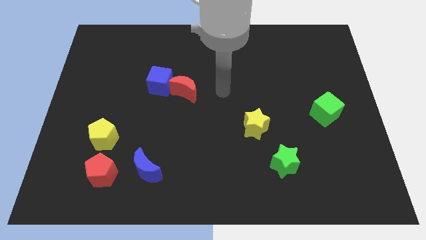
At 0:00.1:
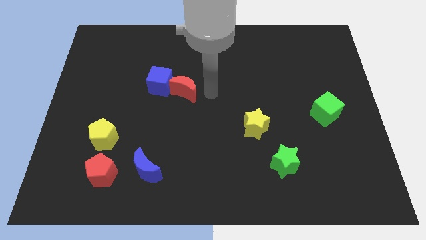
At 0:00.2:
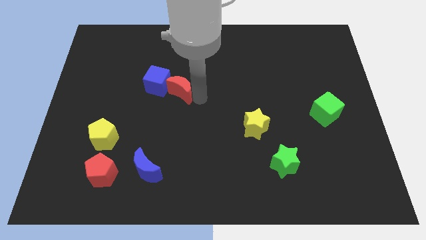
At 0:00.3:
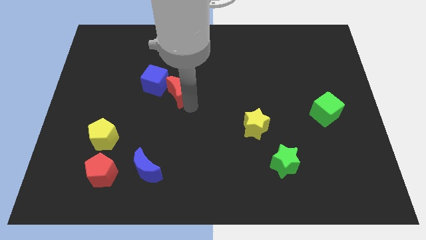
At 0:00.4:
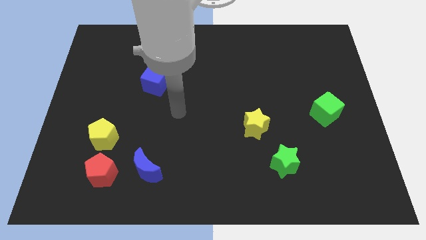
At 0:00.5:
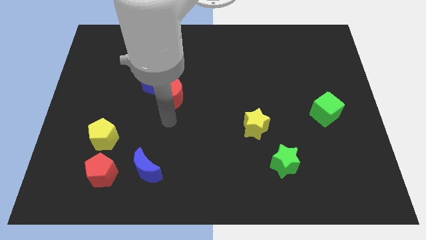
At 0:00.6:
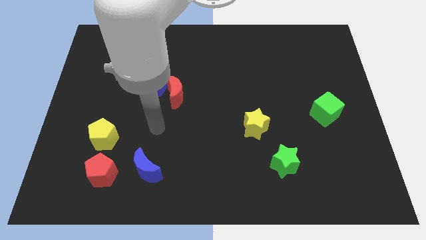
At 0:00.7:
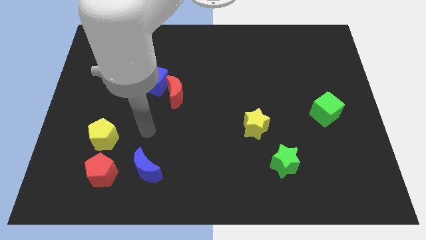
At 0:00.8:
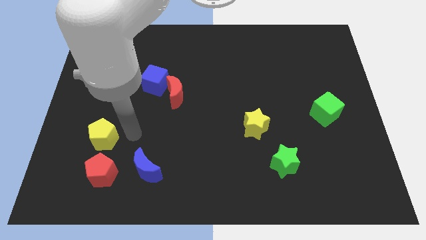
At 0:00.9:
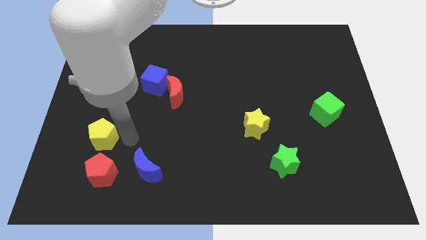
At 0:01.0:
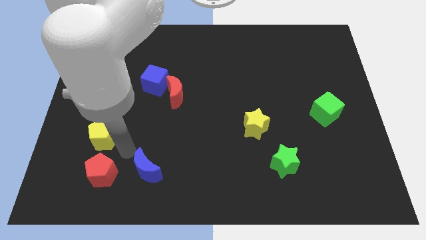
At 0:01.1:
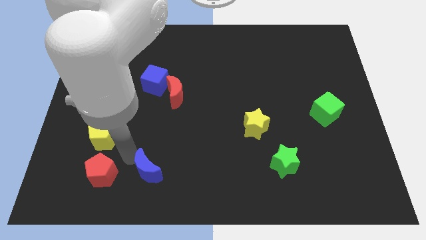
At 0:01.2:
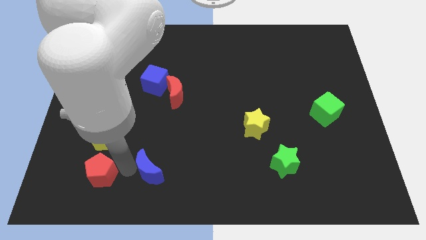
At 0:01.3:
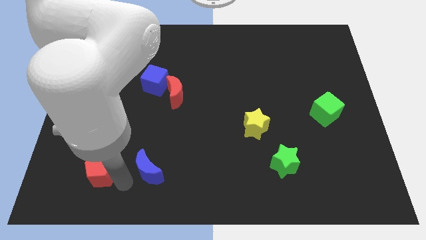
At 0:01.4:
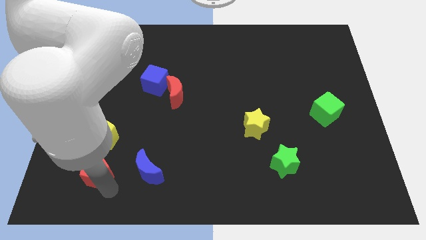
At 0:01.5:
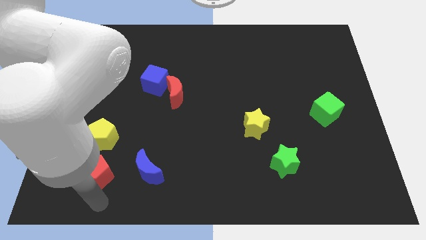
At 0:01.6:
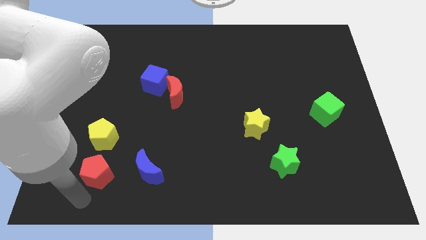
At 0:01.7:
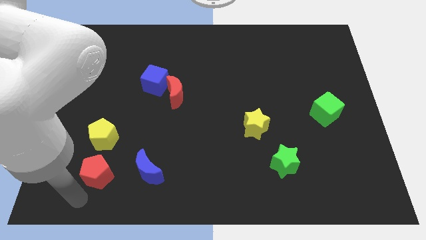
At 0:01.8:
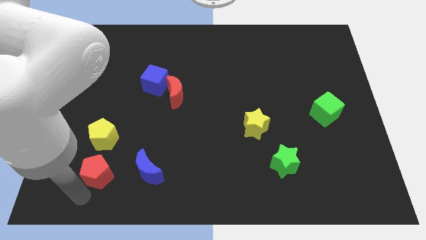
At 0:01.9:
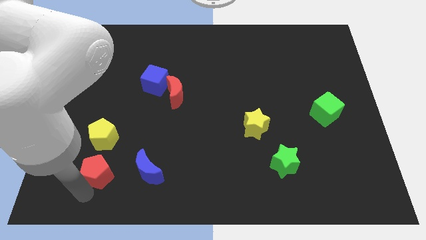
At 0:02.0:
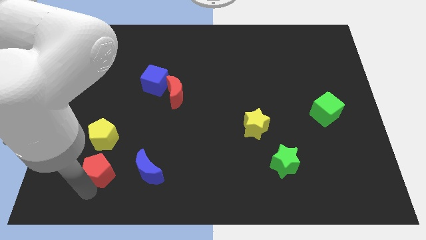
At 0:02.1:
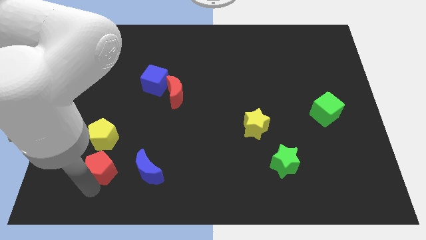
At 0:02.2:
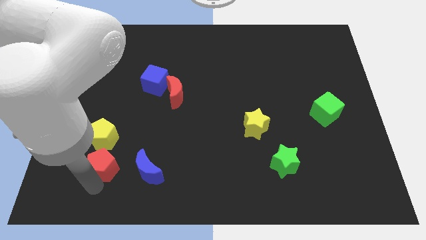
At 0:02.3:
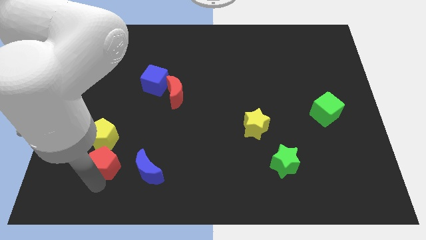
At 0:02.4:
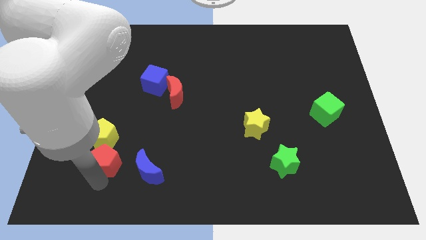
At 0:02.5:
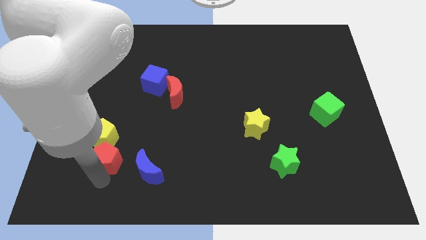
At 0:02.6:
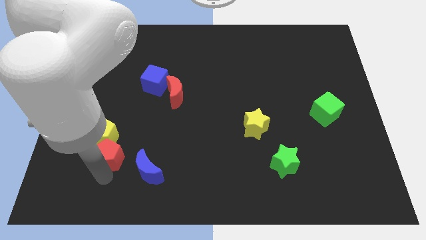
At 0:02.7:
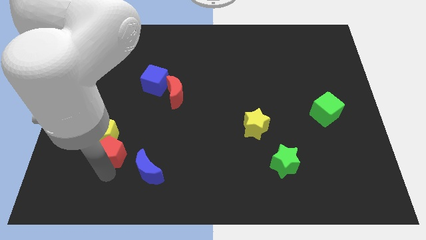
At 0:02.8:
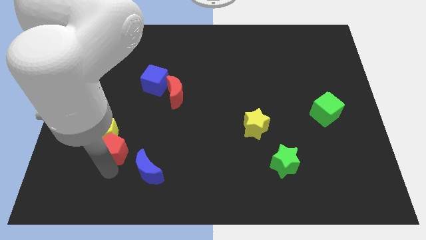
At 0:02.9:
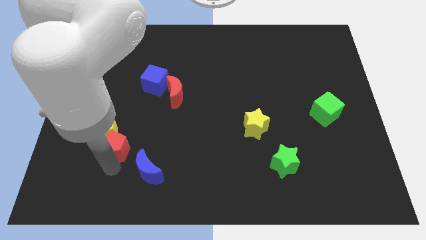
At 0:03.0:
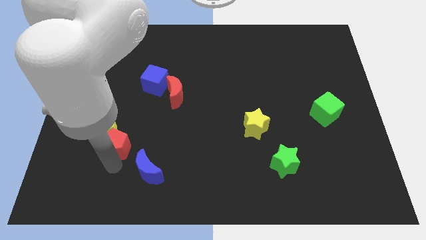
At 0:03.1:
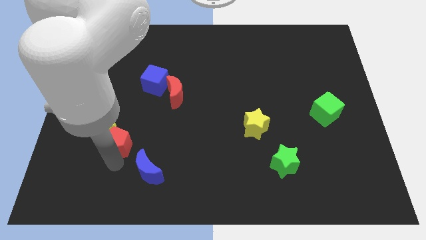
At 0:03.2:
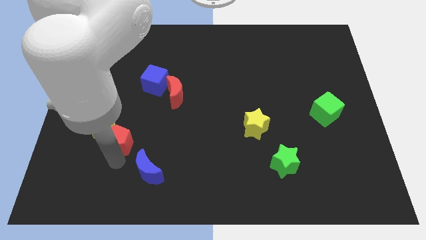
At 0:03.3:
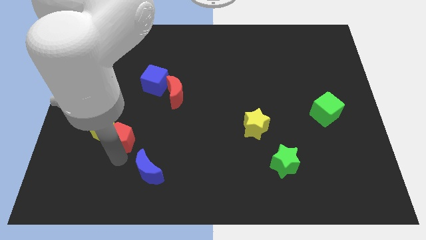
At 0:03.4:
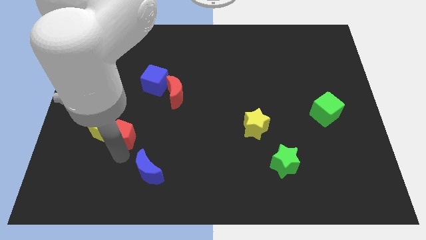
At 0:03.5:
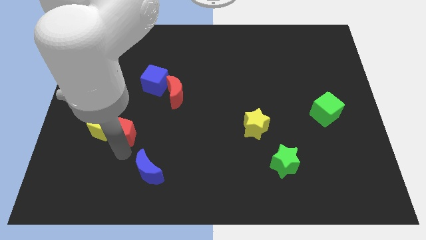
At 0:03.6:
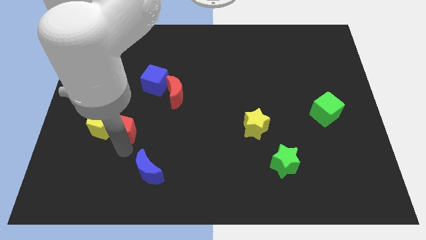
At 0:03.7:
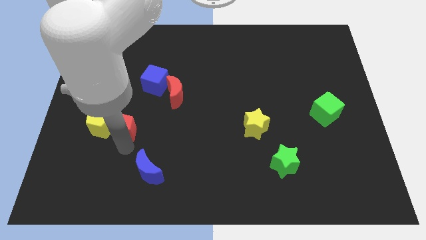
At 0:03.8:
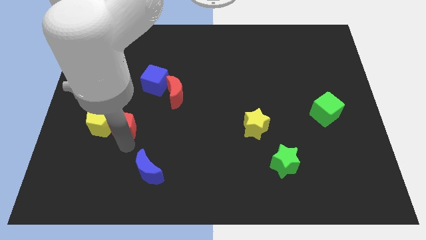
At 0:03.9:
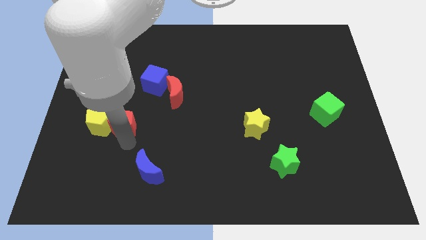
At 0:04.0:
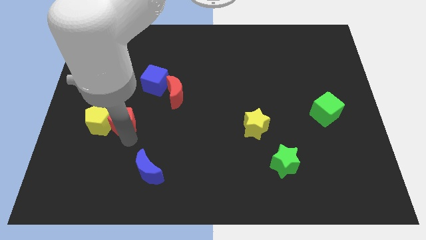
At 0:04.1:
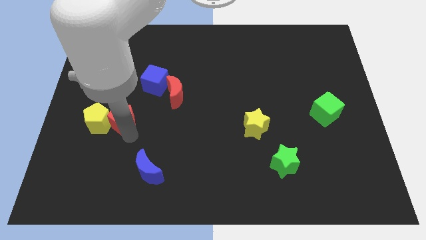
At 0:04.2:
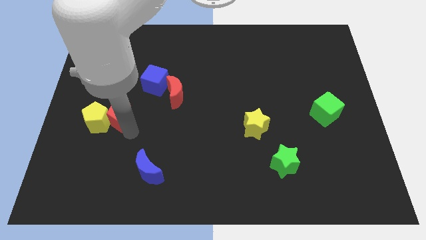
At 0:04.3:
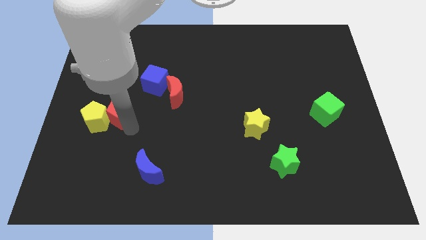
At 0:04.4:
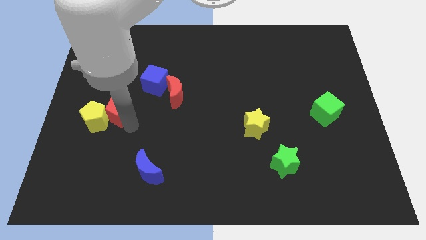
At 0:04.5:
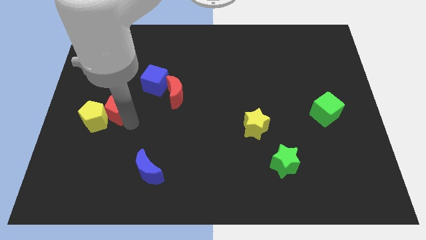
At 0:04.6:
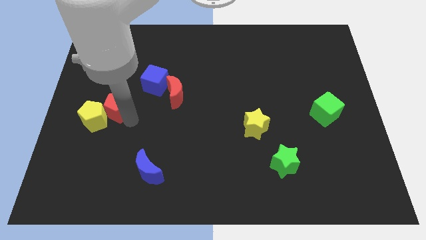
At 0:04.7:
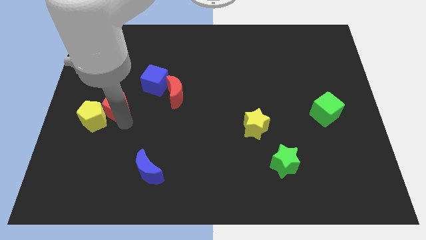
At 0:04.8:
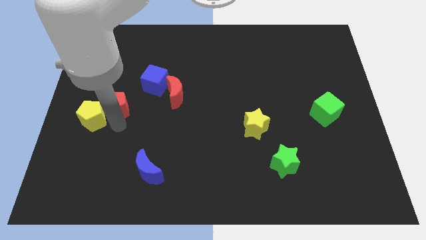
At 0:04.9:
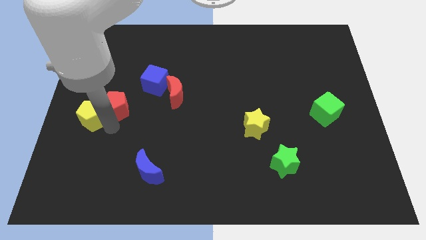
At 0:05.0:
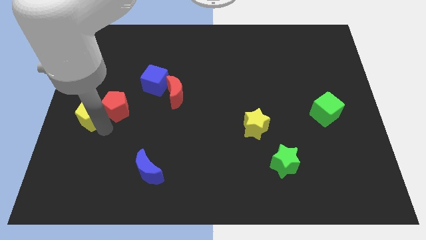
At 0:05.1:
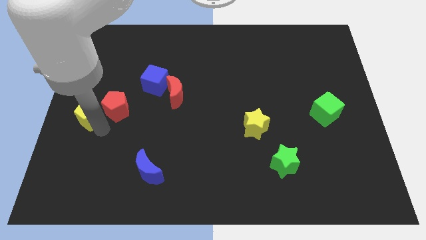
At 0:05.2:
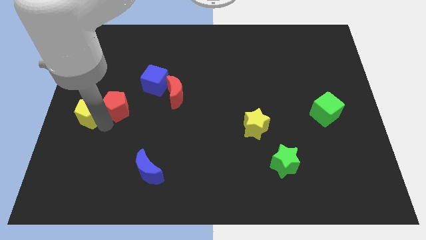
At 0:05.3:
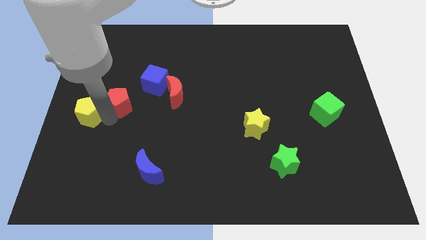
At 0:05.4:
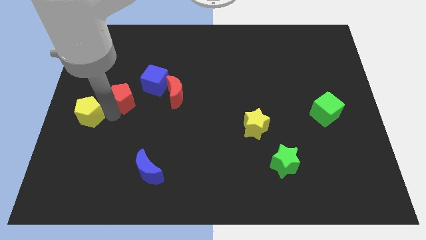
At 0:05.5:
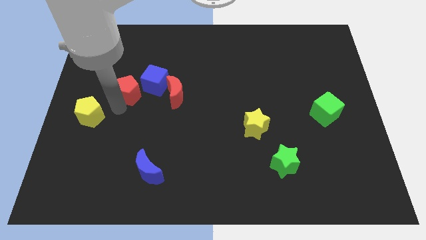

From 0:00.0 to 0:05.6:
slide the red pentagon upwards

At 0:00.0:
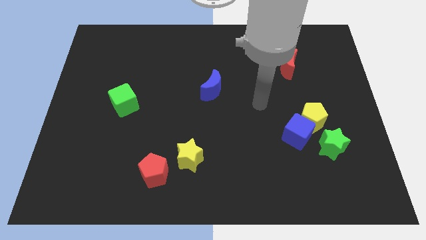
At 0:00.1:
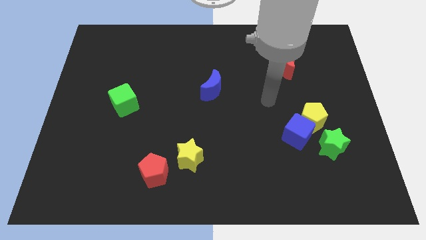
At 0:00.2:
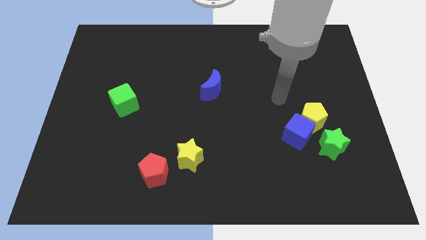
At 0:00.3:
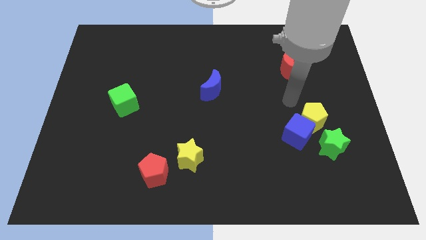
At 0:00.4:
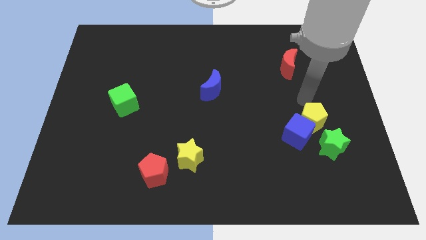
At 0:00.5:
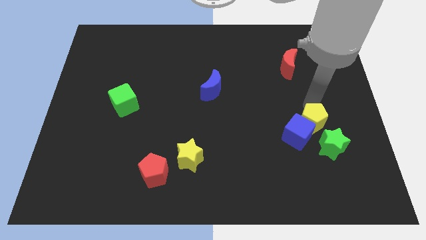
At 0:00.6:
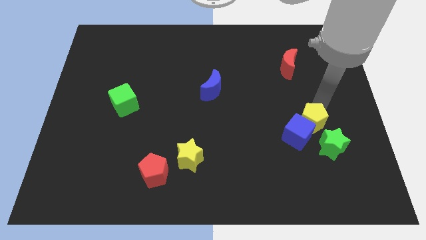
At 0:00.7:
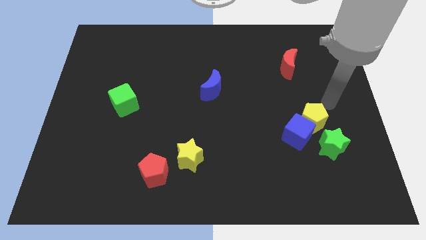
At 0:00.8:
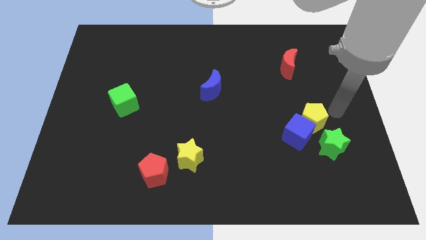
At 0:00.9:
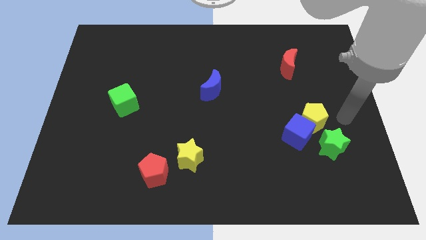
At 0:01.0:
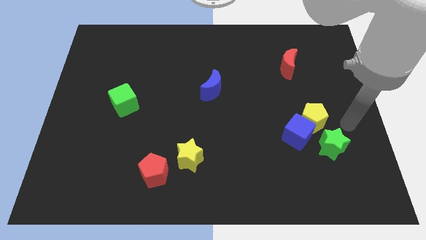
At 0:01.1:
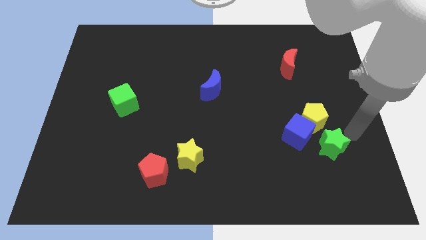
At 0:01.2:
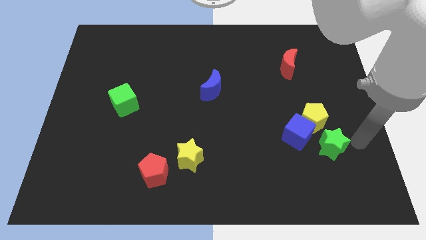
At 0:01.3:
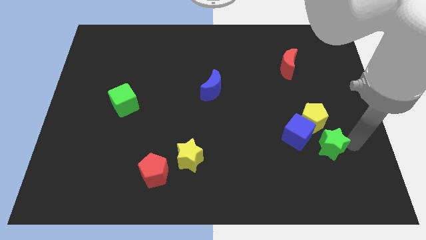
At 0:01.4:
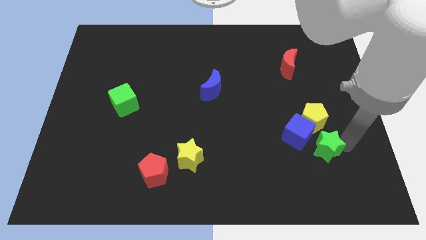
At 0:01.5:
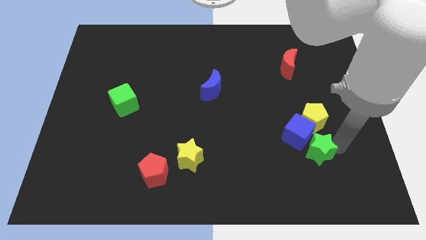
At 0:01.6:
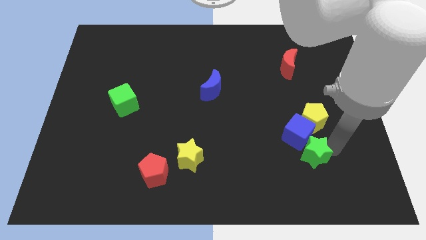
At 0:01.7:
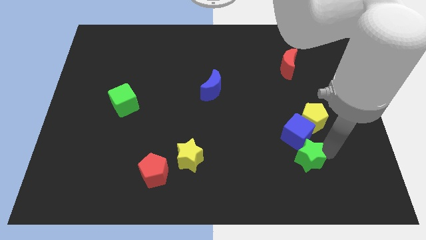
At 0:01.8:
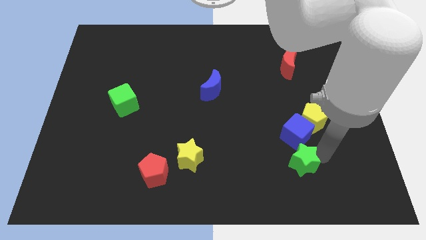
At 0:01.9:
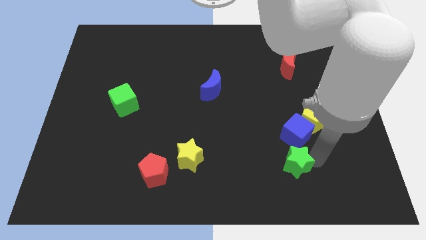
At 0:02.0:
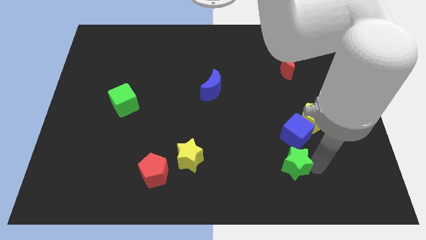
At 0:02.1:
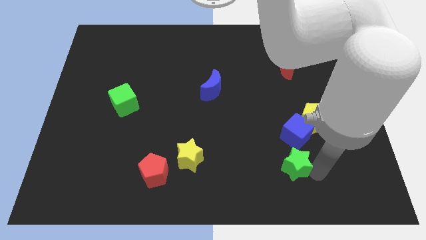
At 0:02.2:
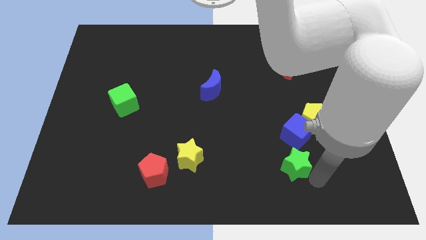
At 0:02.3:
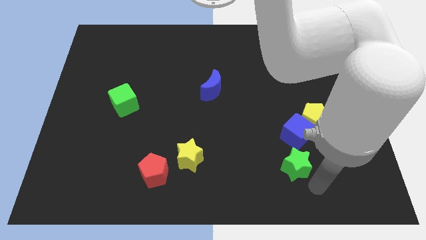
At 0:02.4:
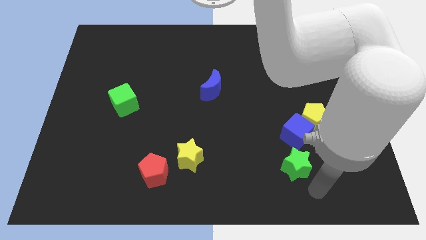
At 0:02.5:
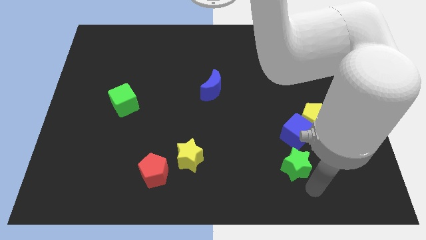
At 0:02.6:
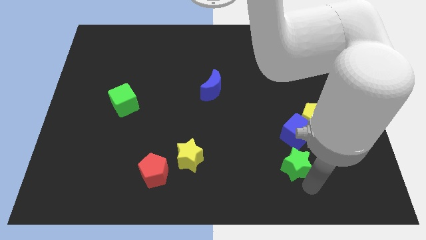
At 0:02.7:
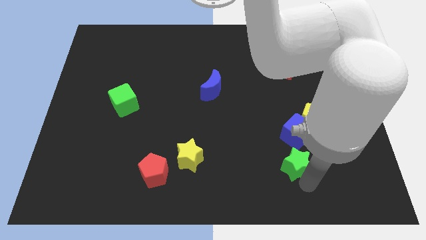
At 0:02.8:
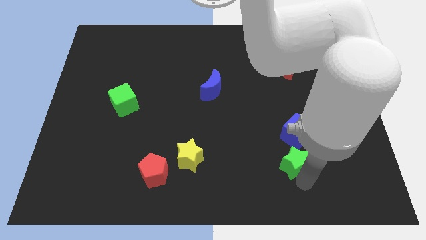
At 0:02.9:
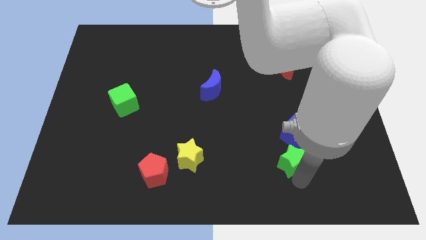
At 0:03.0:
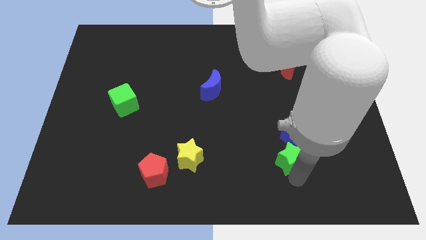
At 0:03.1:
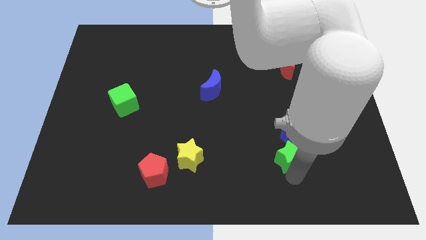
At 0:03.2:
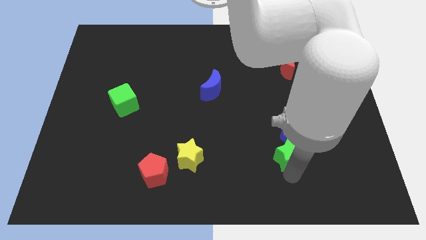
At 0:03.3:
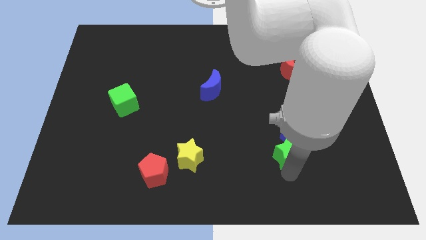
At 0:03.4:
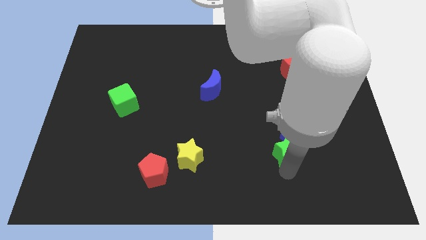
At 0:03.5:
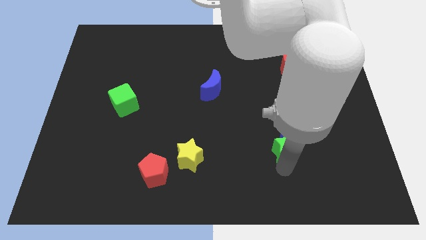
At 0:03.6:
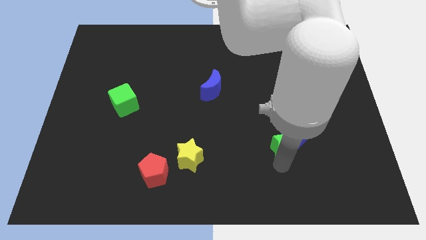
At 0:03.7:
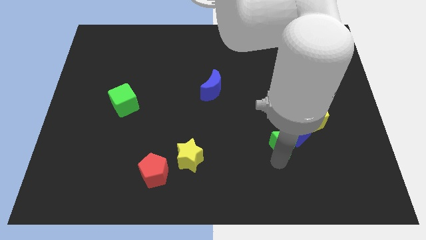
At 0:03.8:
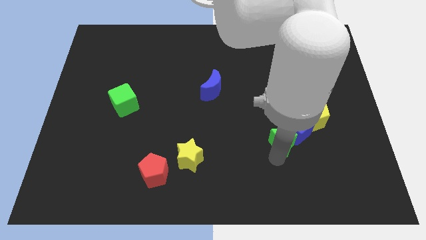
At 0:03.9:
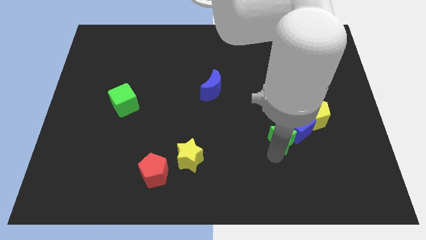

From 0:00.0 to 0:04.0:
push the green star a bit diagonally up and left
